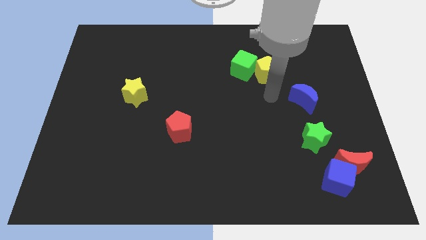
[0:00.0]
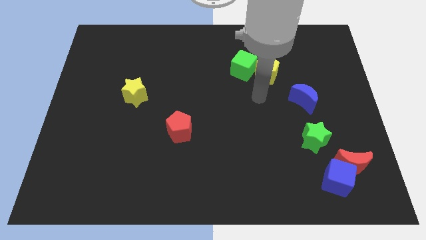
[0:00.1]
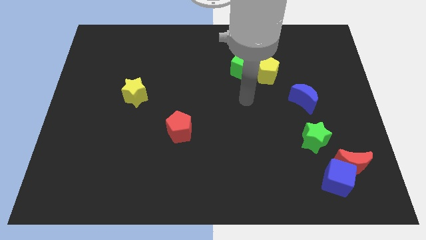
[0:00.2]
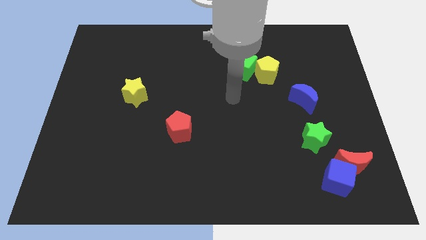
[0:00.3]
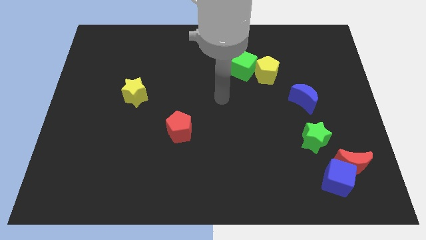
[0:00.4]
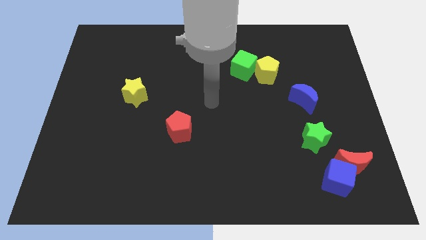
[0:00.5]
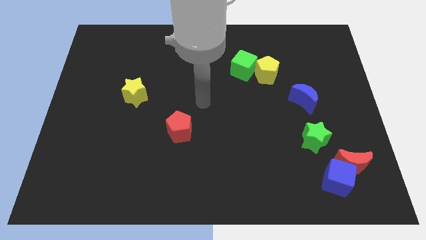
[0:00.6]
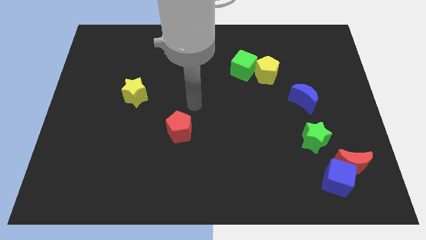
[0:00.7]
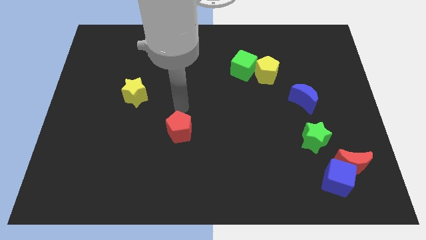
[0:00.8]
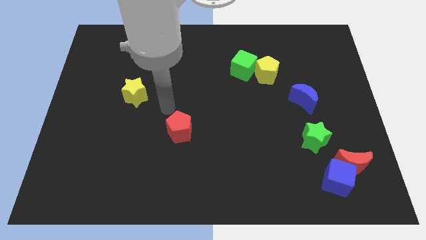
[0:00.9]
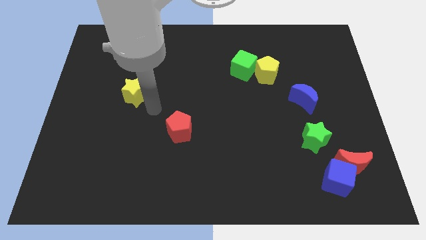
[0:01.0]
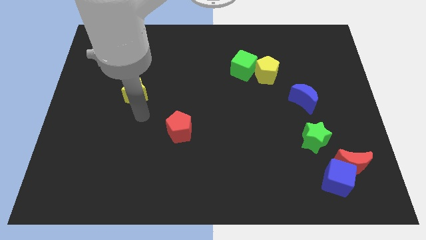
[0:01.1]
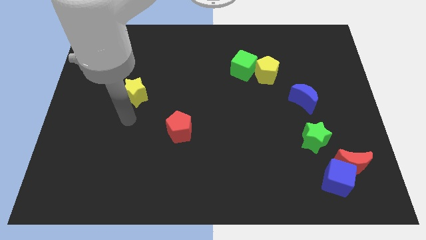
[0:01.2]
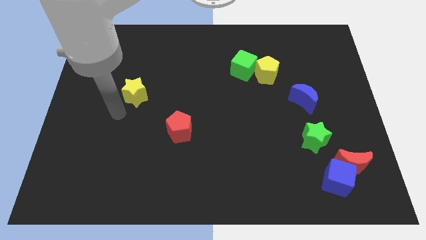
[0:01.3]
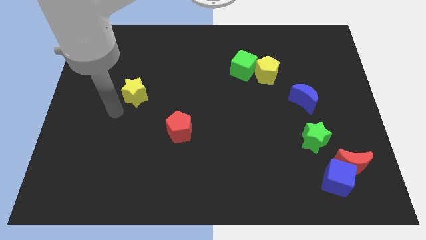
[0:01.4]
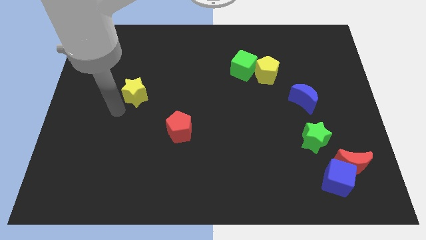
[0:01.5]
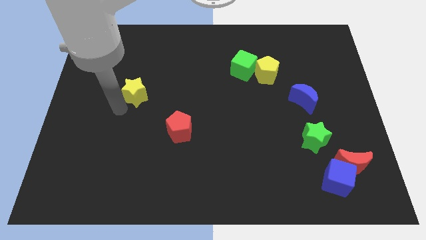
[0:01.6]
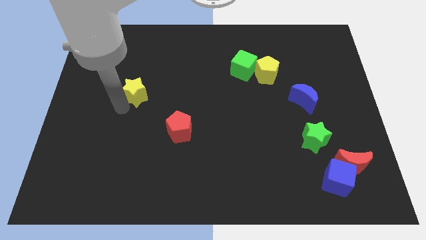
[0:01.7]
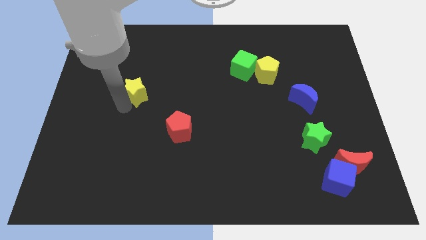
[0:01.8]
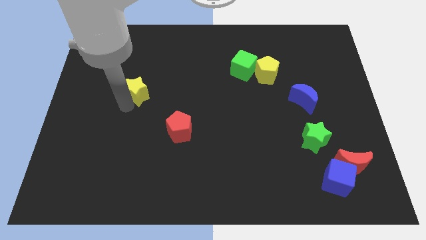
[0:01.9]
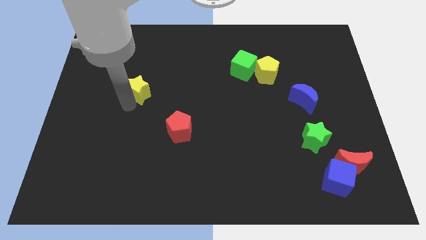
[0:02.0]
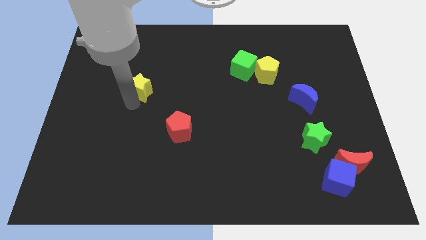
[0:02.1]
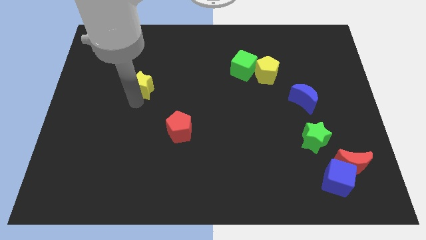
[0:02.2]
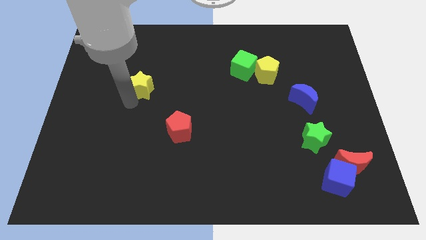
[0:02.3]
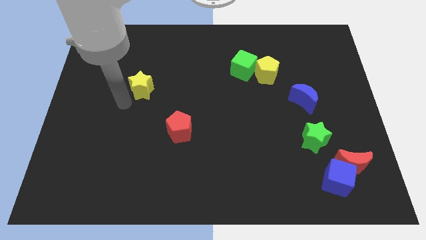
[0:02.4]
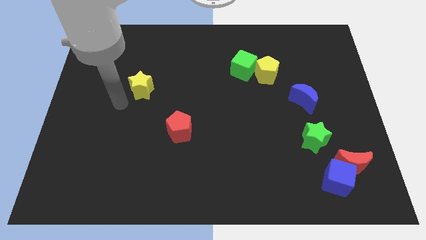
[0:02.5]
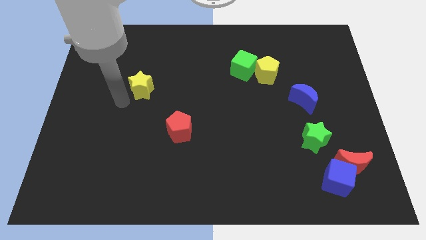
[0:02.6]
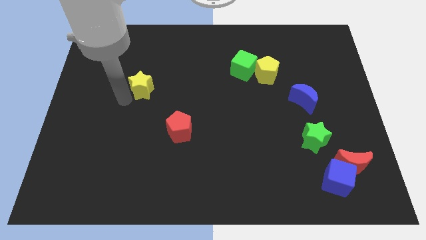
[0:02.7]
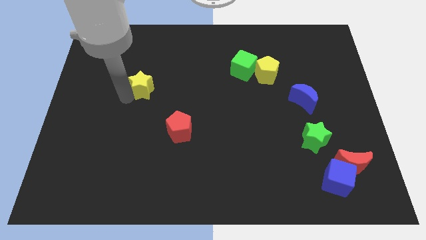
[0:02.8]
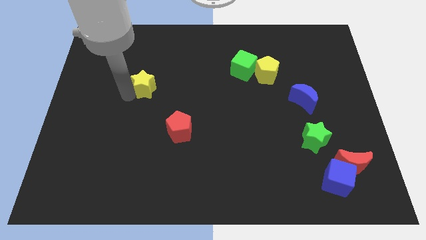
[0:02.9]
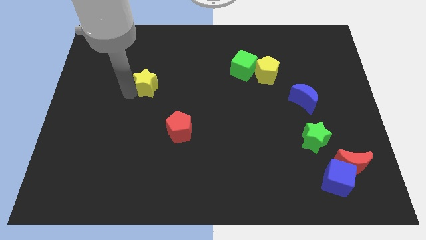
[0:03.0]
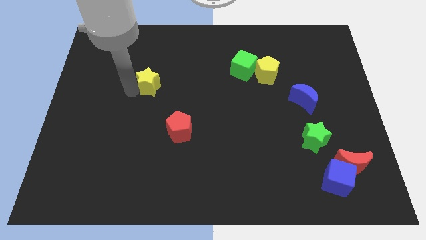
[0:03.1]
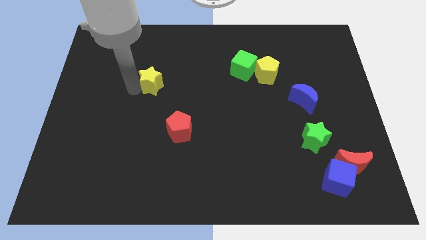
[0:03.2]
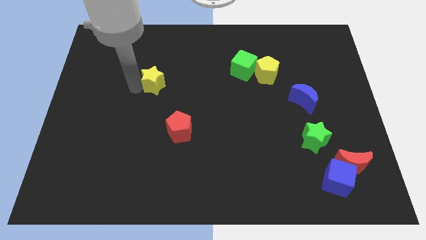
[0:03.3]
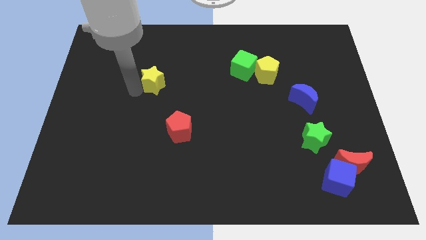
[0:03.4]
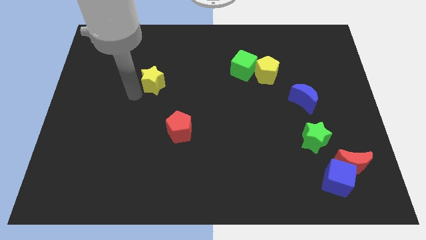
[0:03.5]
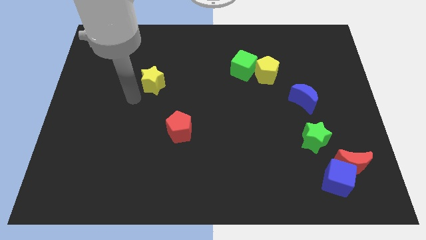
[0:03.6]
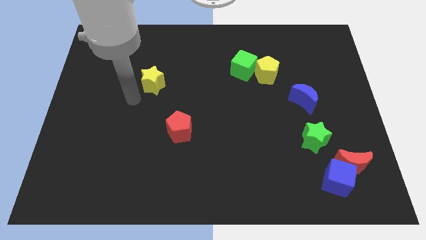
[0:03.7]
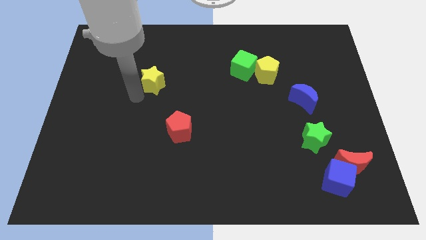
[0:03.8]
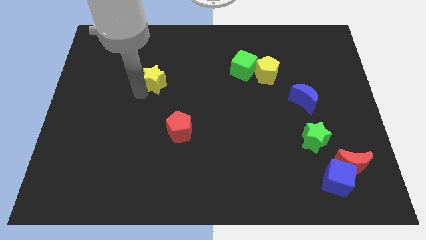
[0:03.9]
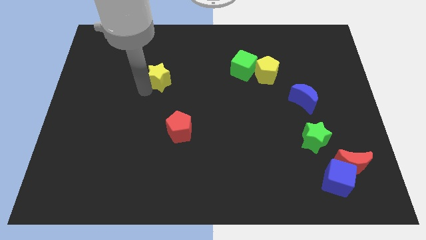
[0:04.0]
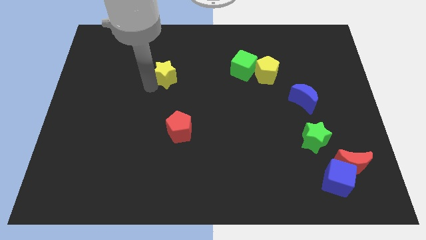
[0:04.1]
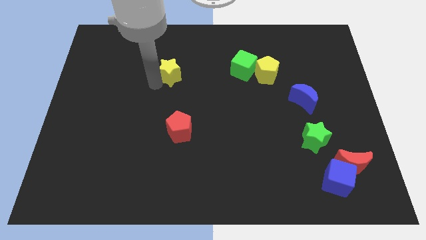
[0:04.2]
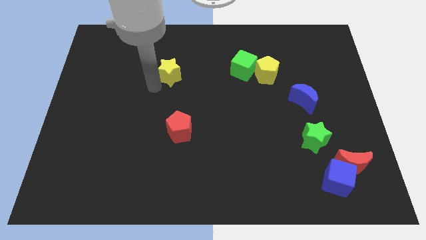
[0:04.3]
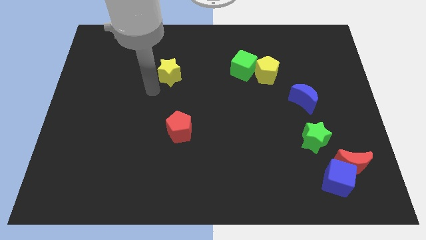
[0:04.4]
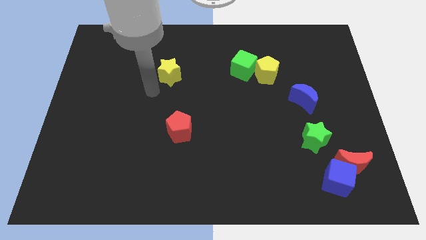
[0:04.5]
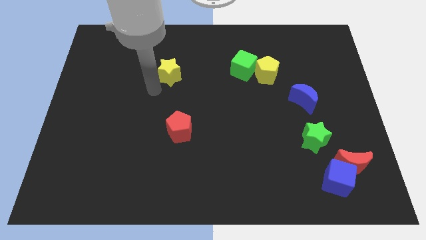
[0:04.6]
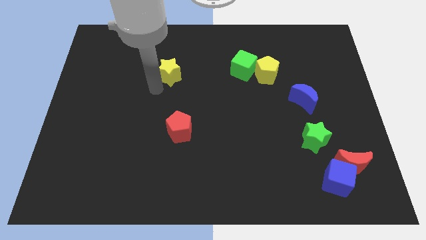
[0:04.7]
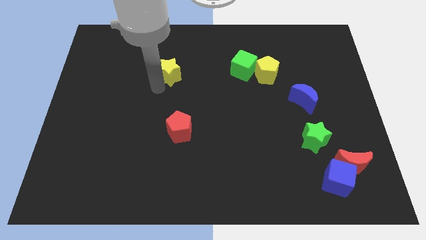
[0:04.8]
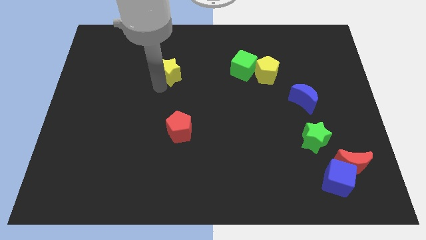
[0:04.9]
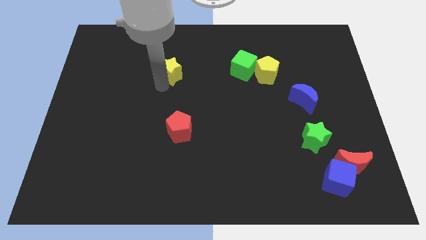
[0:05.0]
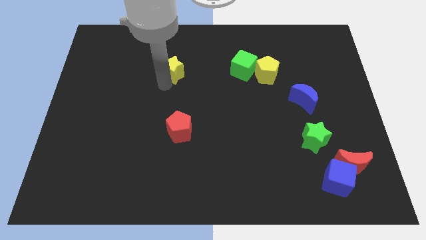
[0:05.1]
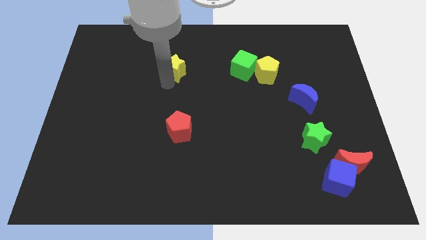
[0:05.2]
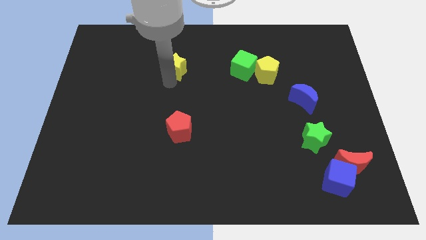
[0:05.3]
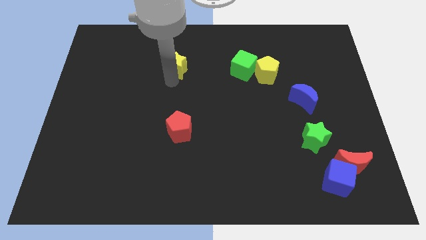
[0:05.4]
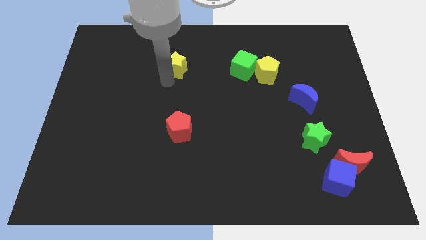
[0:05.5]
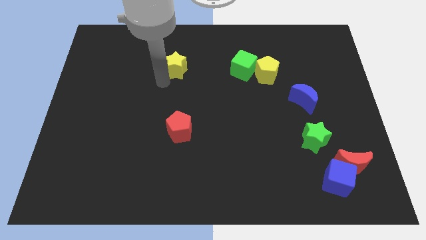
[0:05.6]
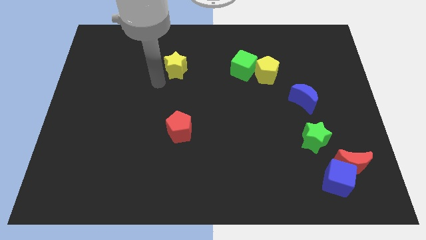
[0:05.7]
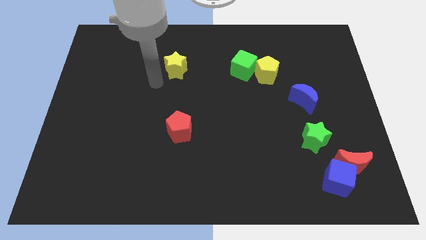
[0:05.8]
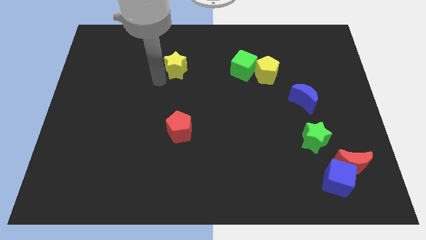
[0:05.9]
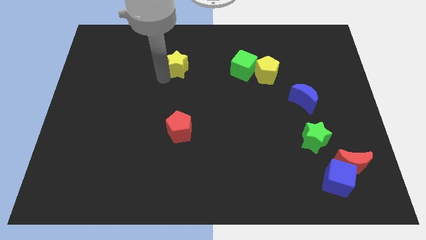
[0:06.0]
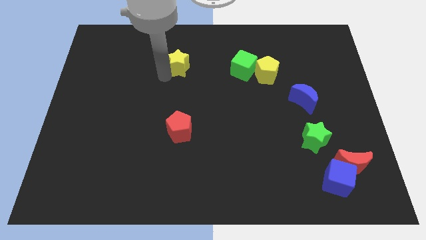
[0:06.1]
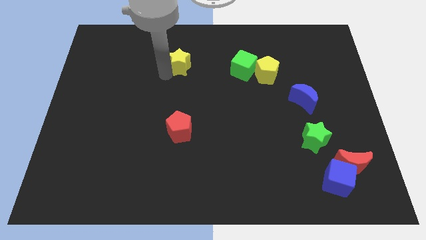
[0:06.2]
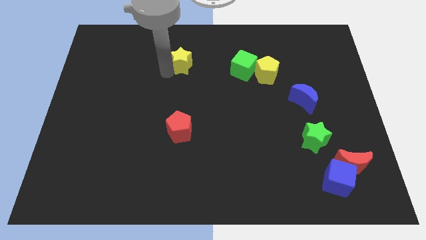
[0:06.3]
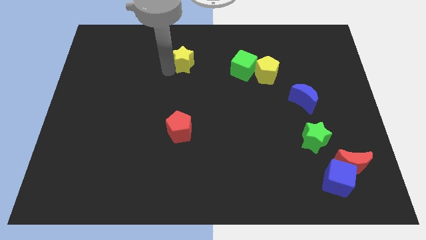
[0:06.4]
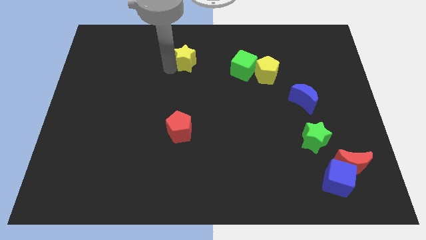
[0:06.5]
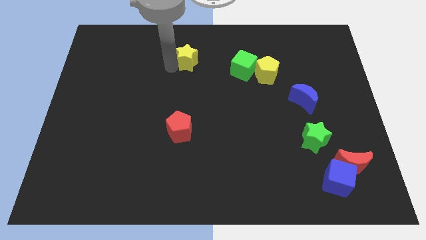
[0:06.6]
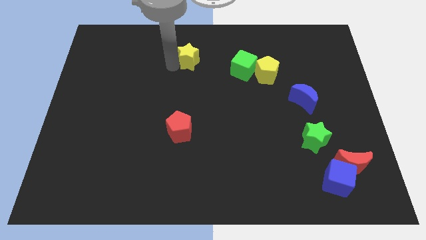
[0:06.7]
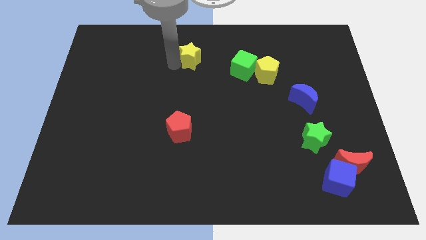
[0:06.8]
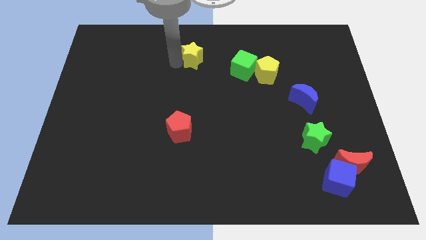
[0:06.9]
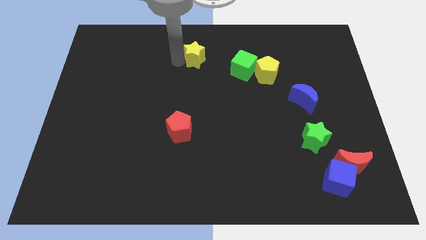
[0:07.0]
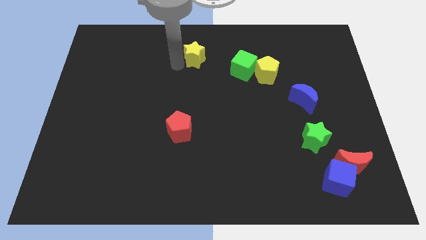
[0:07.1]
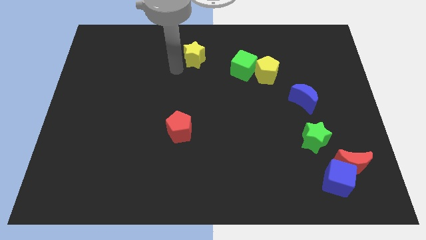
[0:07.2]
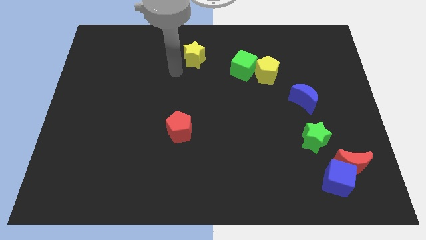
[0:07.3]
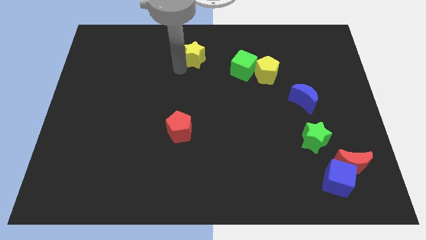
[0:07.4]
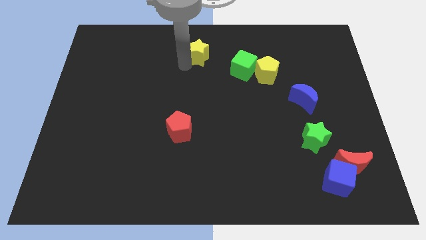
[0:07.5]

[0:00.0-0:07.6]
slide the yellow star to the top
